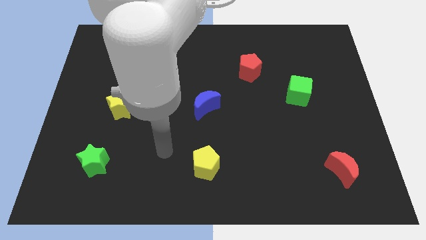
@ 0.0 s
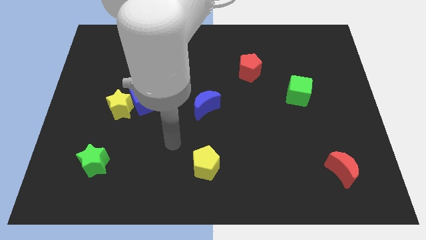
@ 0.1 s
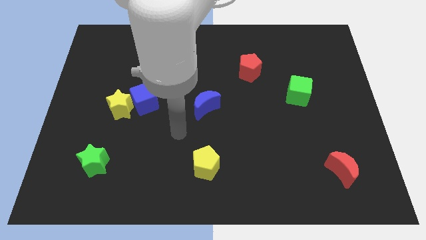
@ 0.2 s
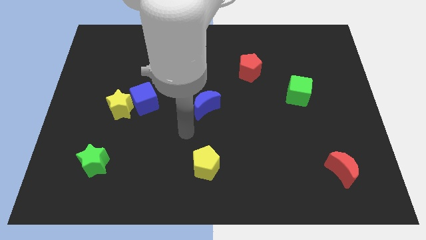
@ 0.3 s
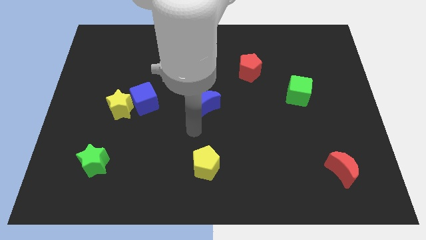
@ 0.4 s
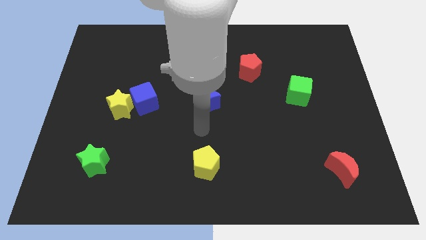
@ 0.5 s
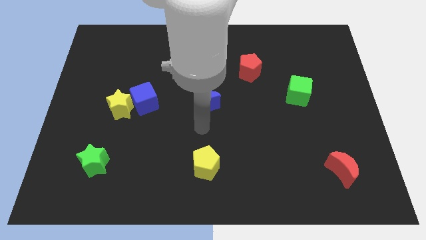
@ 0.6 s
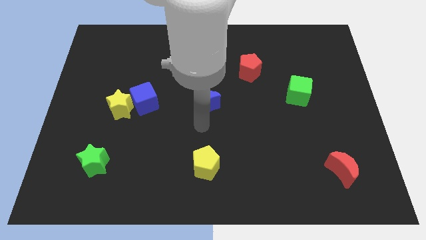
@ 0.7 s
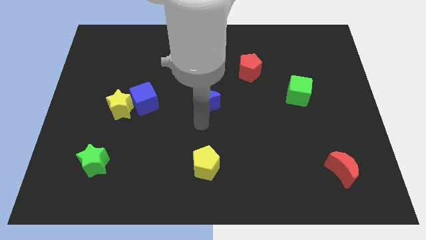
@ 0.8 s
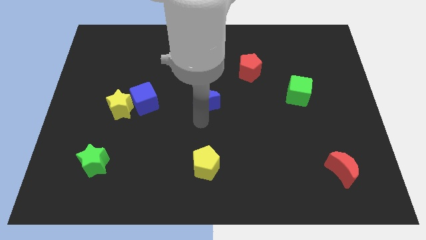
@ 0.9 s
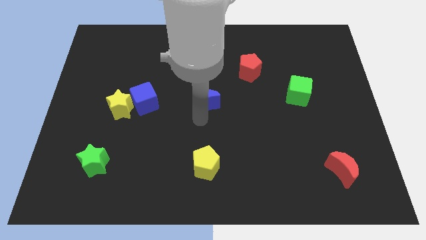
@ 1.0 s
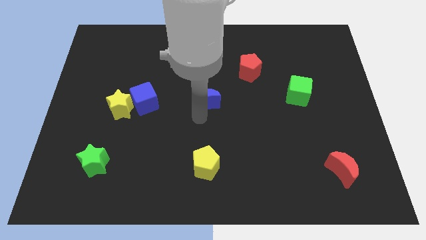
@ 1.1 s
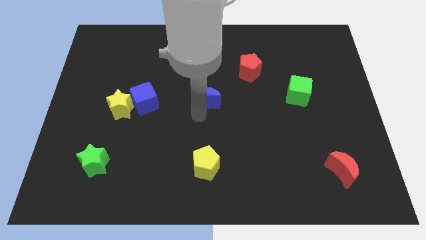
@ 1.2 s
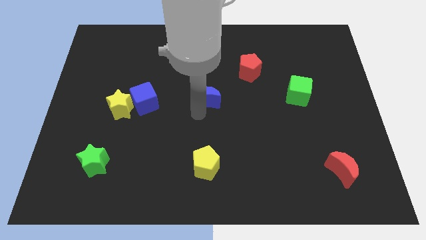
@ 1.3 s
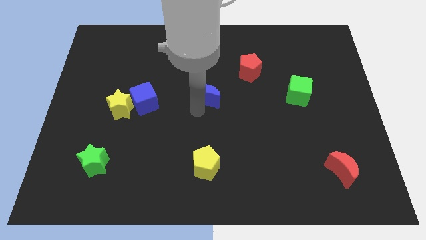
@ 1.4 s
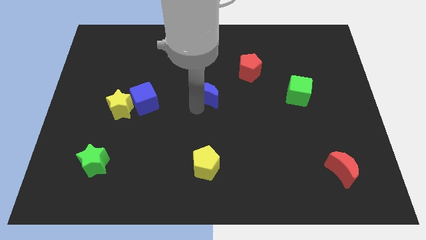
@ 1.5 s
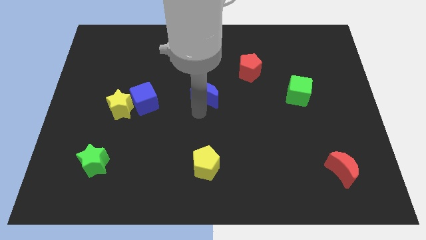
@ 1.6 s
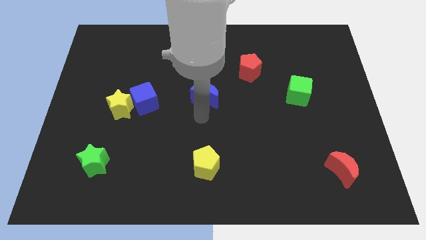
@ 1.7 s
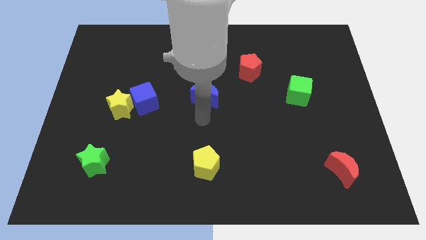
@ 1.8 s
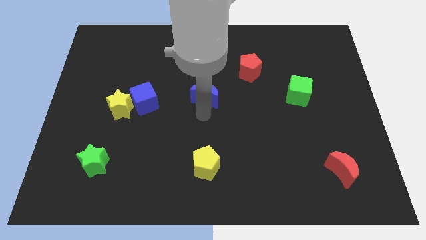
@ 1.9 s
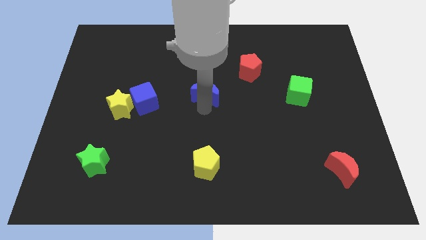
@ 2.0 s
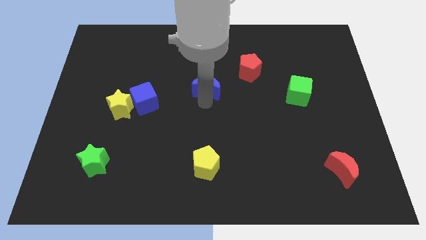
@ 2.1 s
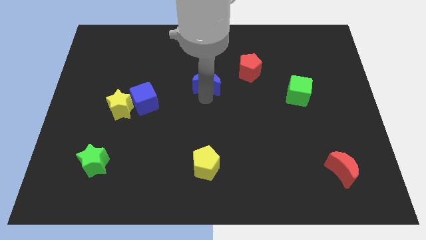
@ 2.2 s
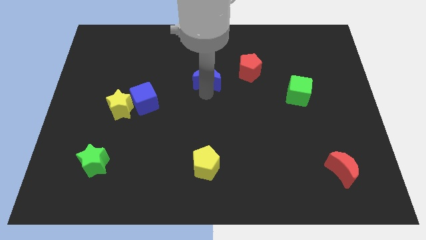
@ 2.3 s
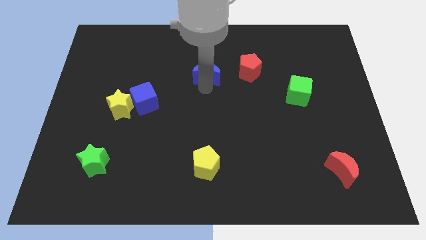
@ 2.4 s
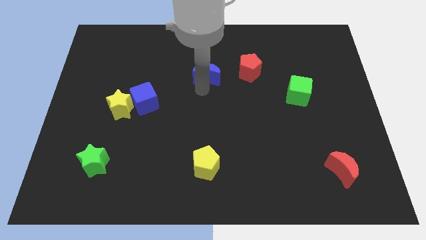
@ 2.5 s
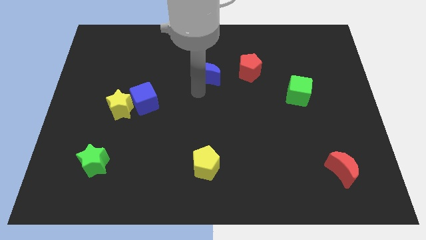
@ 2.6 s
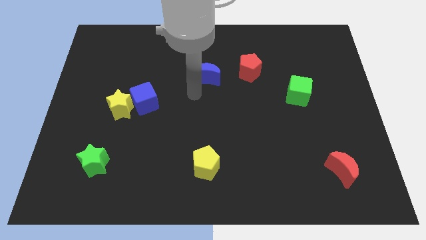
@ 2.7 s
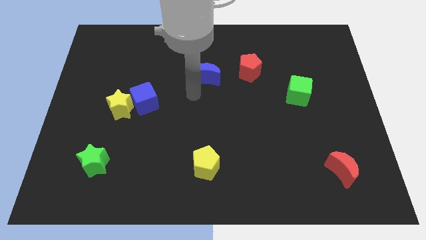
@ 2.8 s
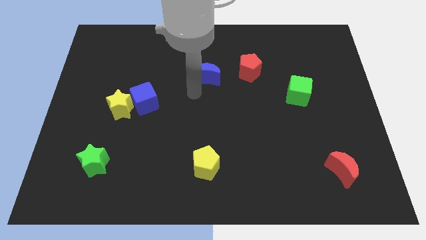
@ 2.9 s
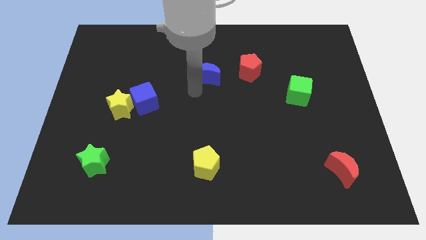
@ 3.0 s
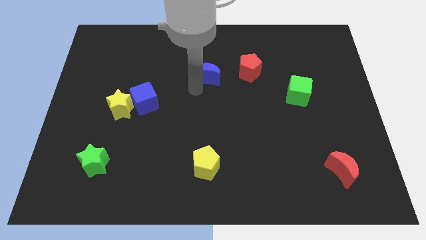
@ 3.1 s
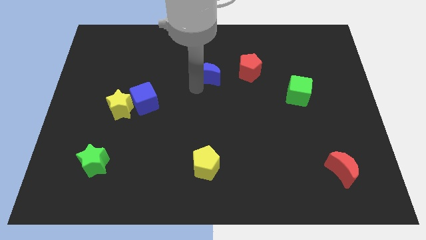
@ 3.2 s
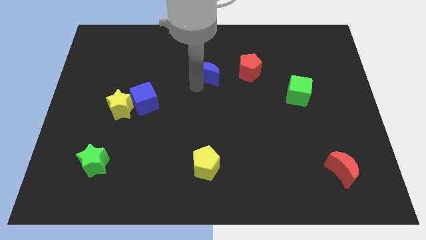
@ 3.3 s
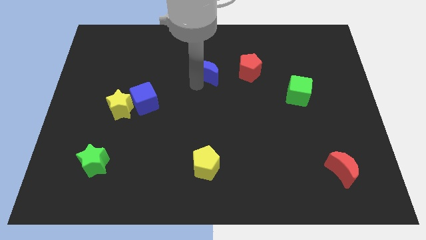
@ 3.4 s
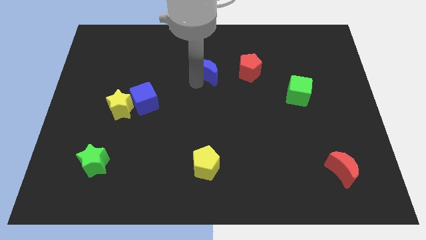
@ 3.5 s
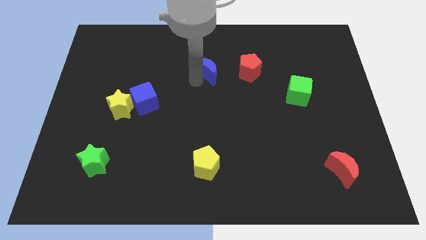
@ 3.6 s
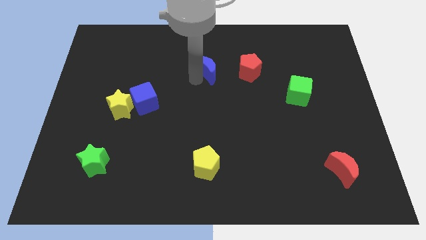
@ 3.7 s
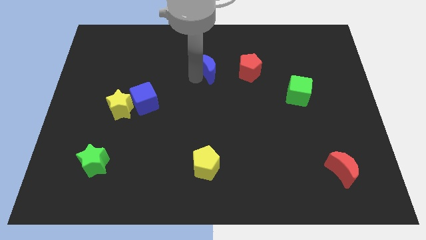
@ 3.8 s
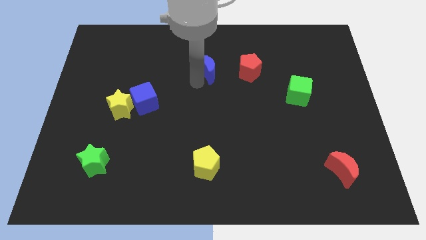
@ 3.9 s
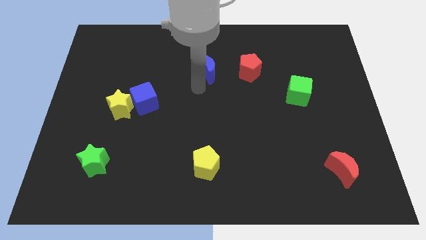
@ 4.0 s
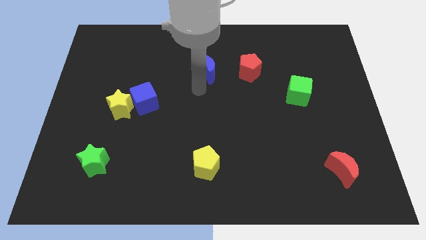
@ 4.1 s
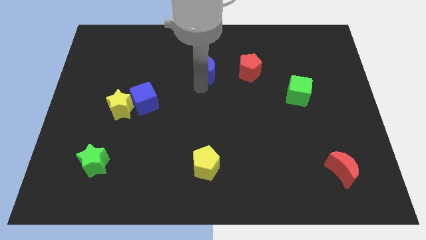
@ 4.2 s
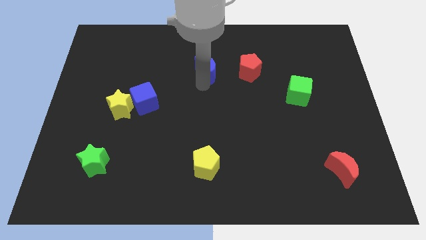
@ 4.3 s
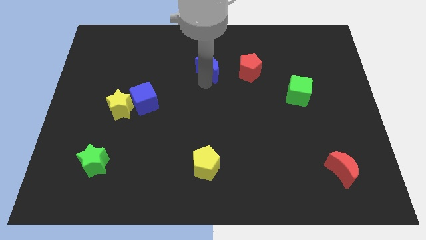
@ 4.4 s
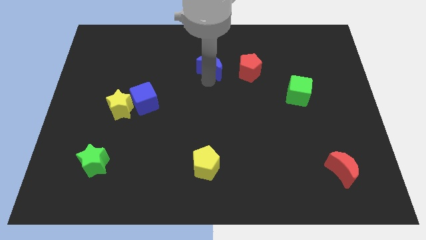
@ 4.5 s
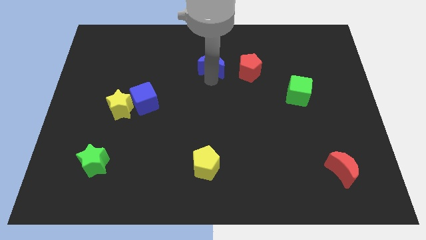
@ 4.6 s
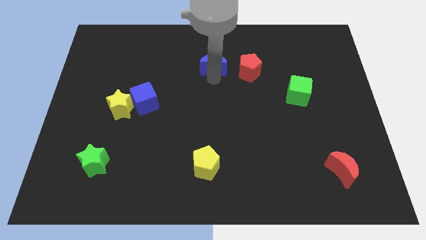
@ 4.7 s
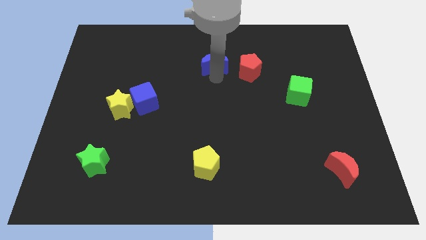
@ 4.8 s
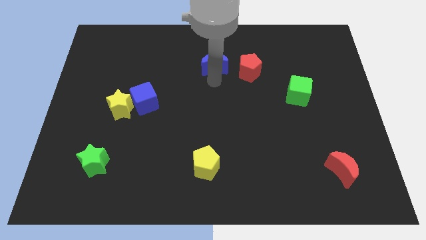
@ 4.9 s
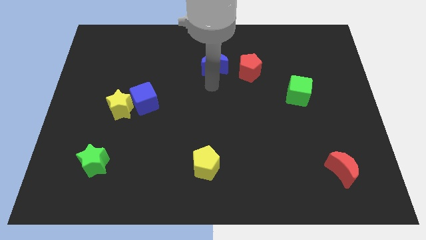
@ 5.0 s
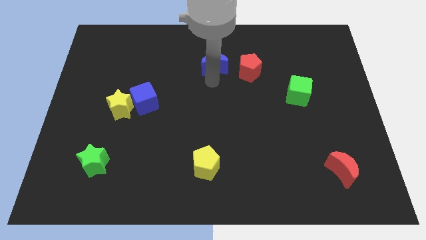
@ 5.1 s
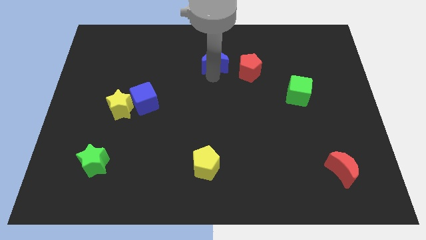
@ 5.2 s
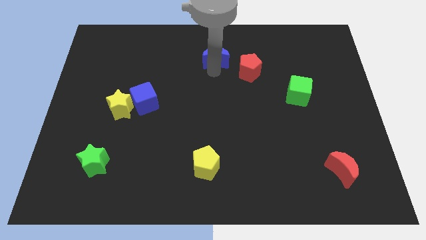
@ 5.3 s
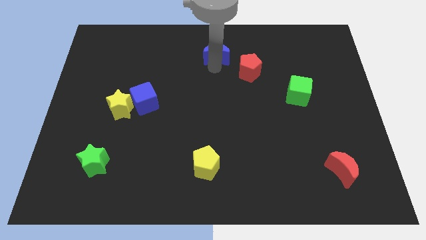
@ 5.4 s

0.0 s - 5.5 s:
move the blue moon to the top side

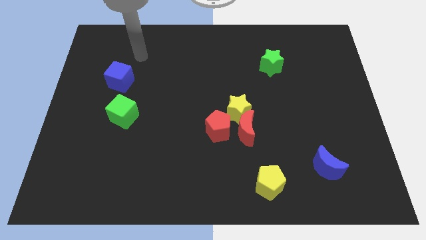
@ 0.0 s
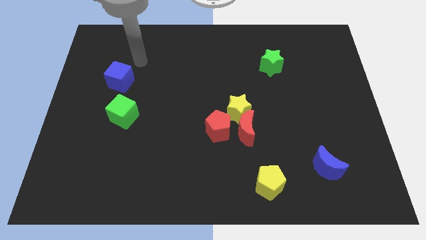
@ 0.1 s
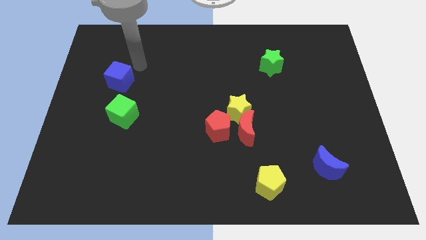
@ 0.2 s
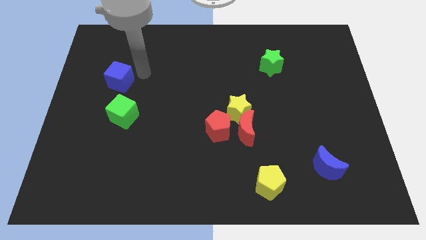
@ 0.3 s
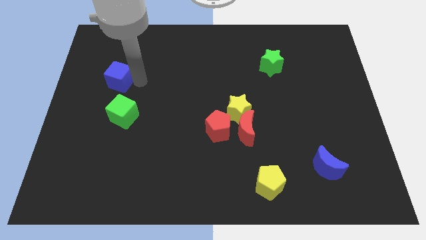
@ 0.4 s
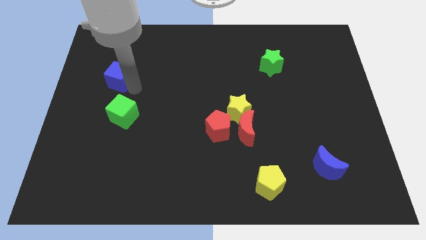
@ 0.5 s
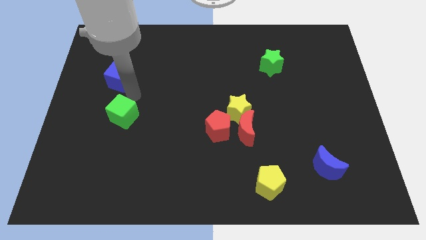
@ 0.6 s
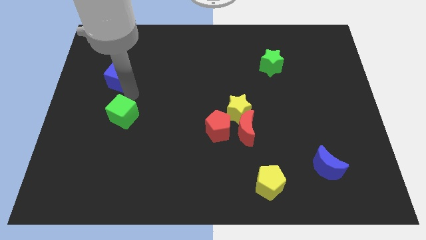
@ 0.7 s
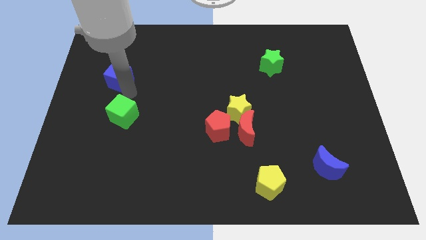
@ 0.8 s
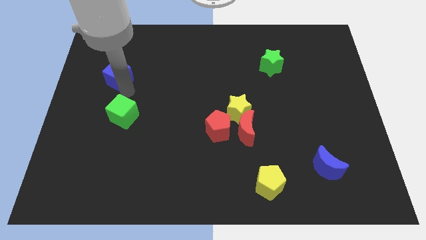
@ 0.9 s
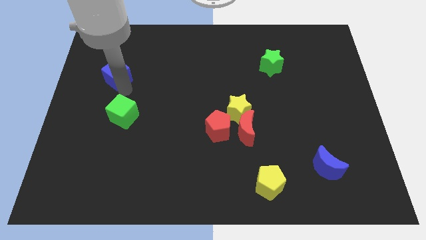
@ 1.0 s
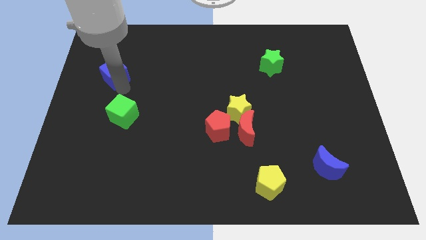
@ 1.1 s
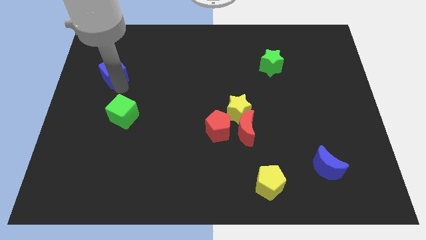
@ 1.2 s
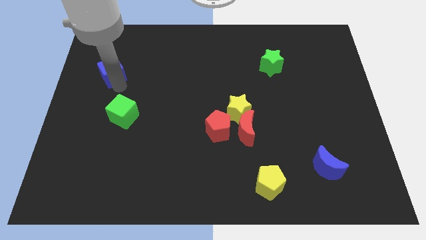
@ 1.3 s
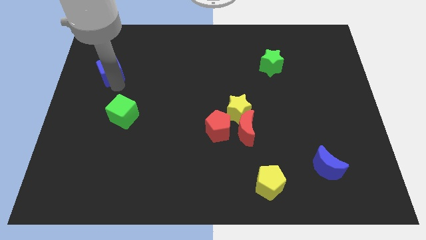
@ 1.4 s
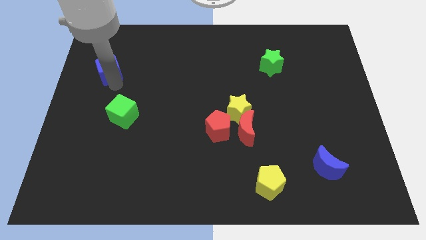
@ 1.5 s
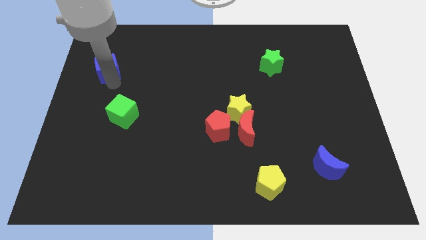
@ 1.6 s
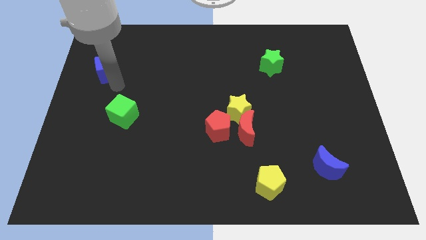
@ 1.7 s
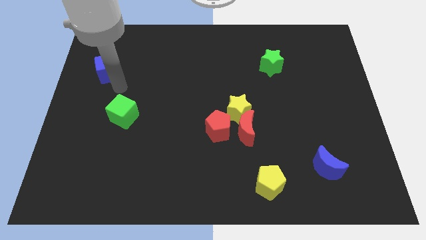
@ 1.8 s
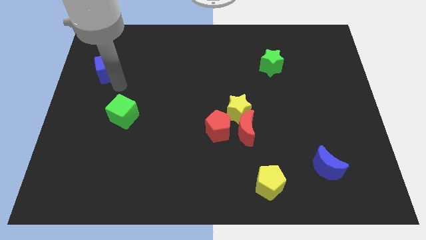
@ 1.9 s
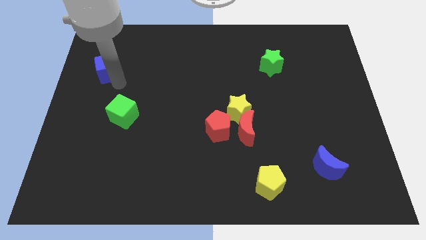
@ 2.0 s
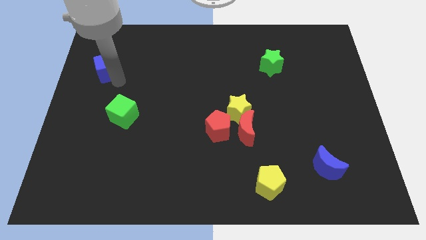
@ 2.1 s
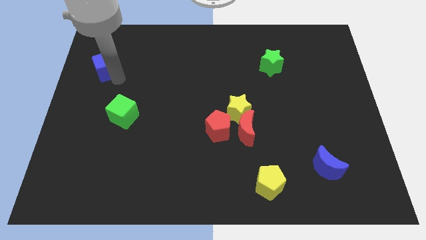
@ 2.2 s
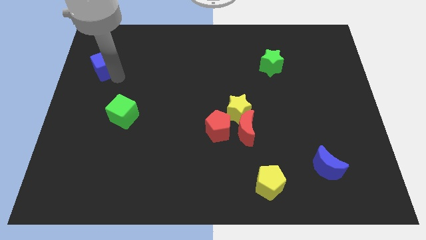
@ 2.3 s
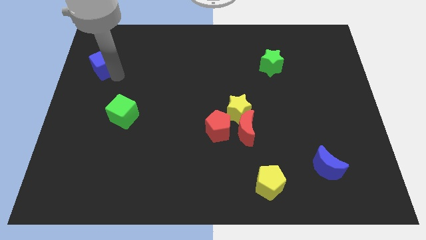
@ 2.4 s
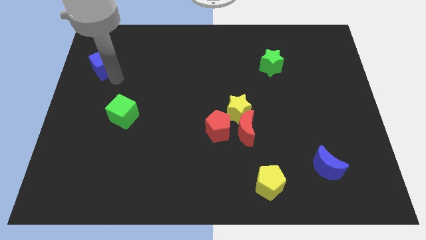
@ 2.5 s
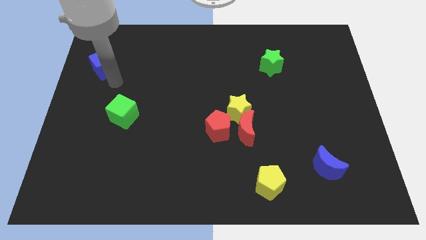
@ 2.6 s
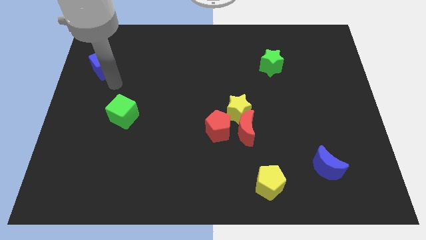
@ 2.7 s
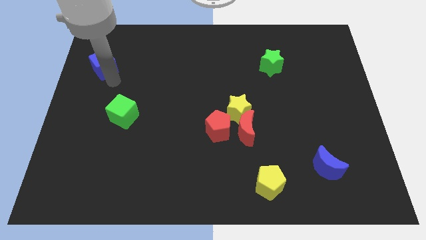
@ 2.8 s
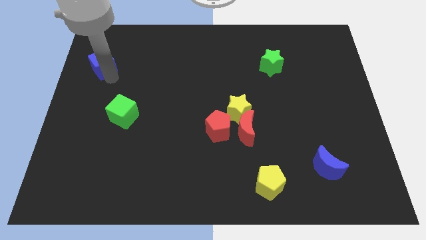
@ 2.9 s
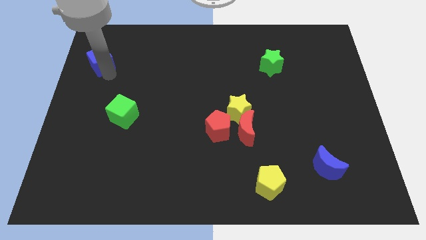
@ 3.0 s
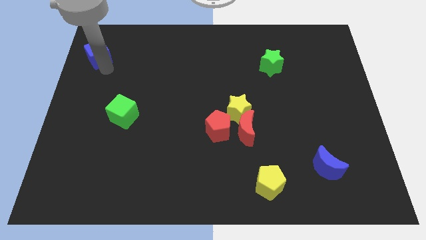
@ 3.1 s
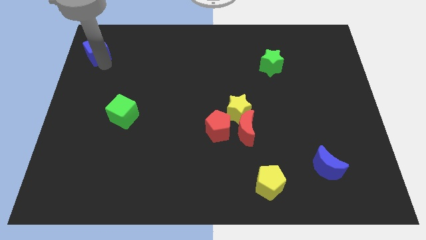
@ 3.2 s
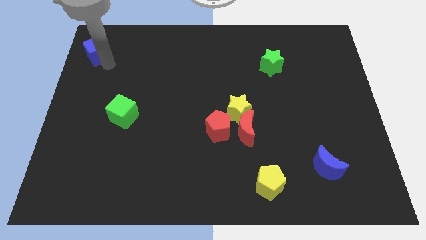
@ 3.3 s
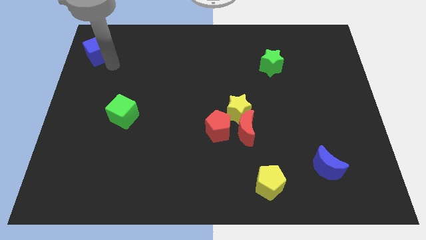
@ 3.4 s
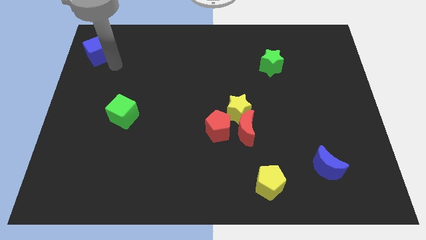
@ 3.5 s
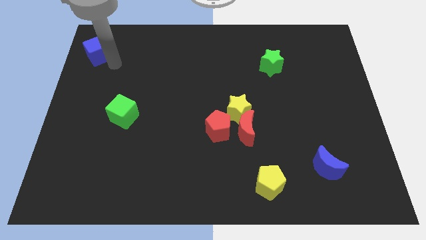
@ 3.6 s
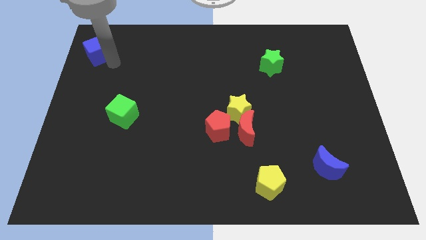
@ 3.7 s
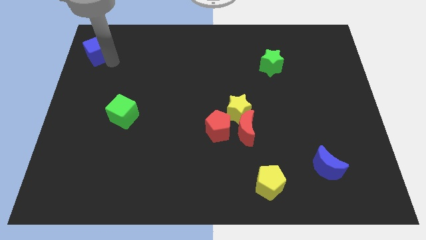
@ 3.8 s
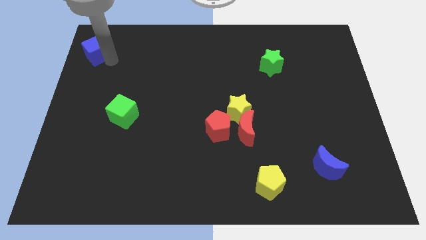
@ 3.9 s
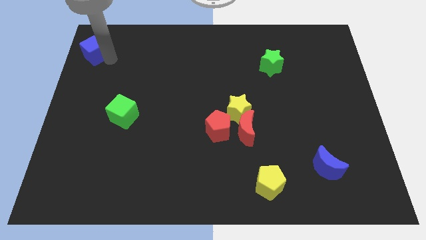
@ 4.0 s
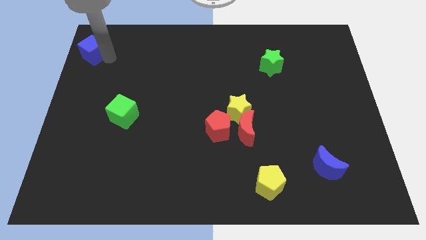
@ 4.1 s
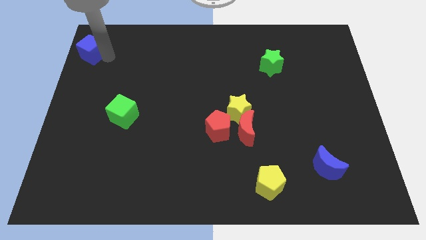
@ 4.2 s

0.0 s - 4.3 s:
slide the blue cube to the top left of the board
